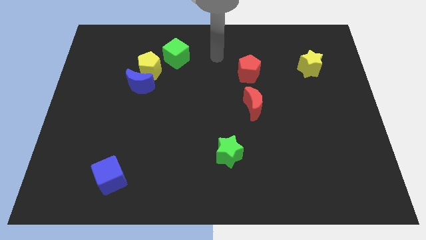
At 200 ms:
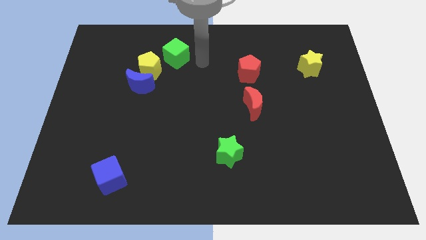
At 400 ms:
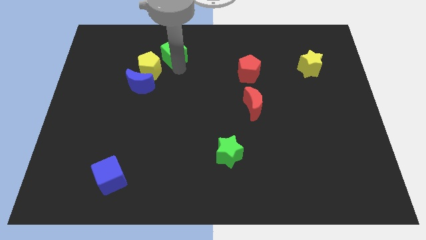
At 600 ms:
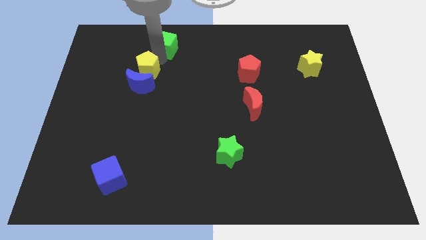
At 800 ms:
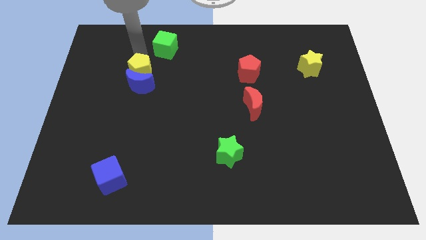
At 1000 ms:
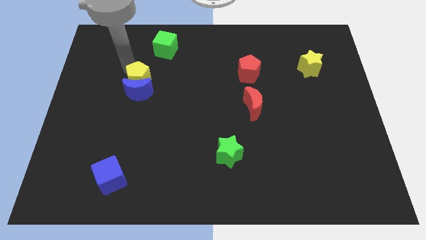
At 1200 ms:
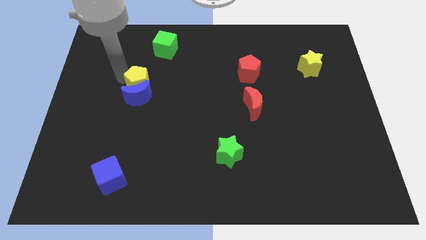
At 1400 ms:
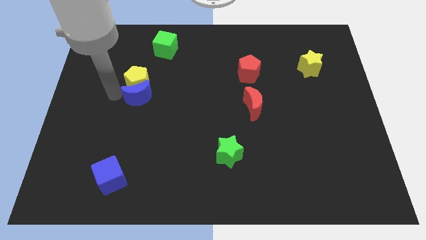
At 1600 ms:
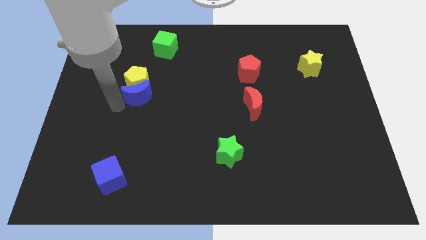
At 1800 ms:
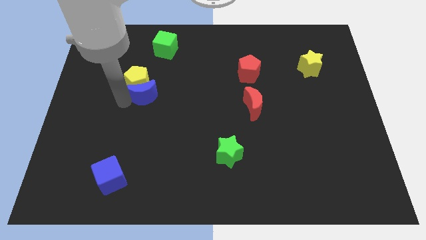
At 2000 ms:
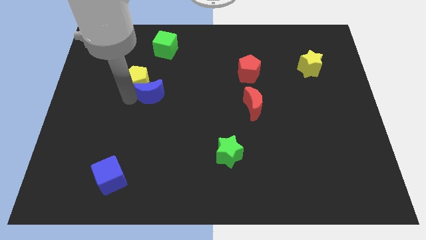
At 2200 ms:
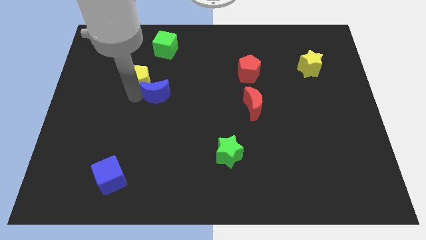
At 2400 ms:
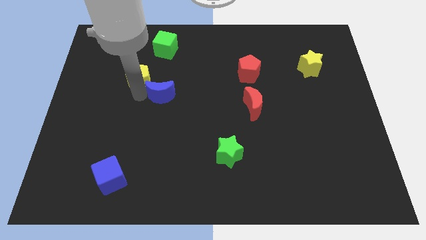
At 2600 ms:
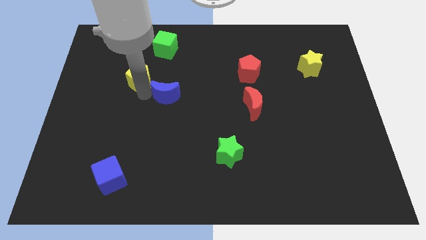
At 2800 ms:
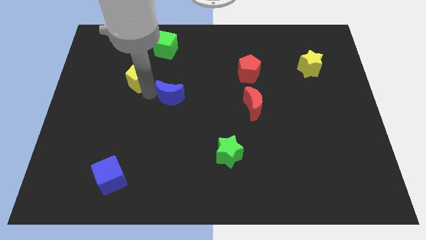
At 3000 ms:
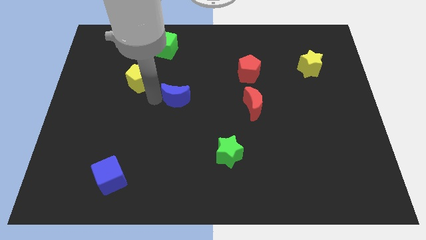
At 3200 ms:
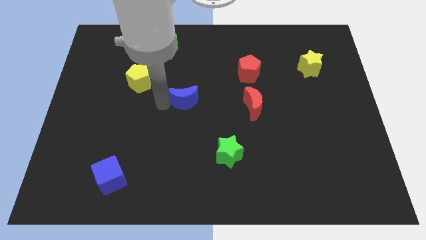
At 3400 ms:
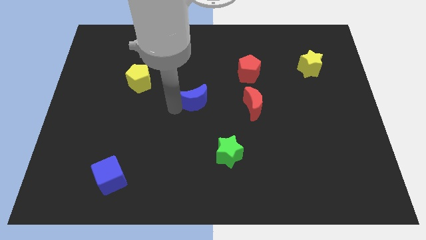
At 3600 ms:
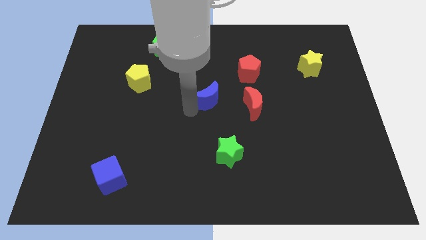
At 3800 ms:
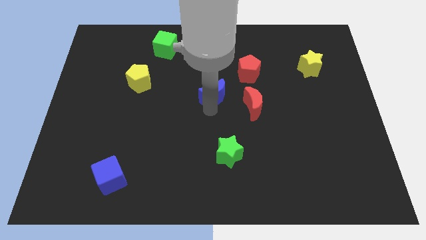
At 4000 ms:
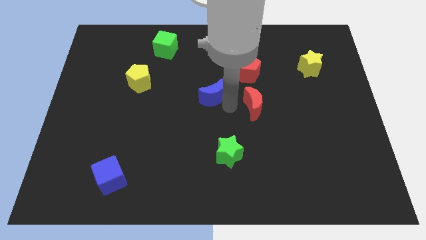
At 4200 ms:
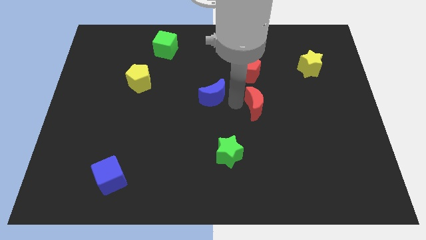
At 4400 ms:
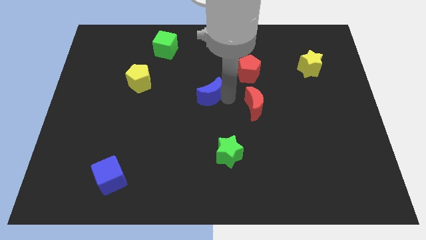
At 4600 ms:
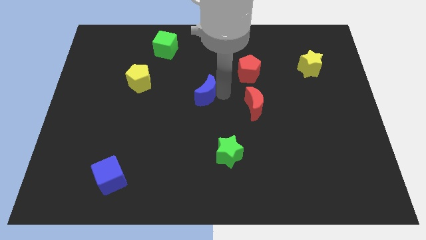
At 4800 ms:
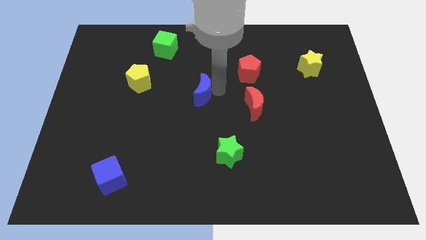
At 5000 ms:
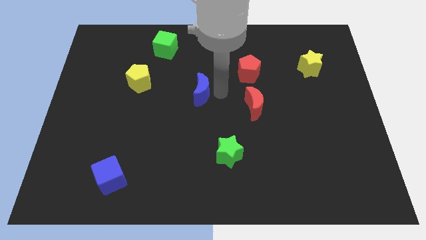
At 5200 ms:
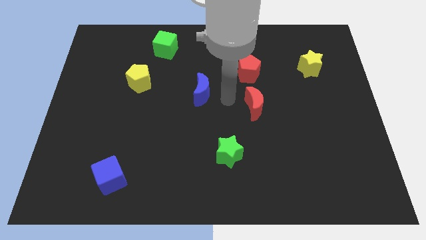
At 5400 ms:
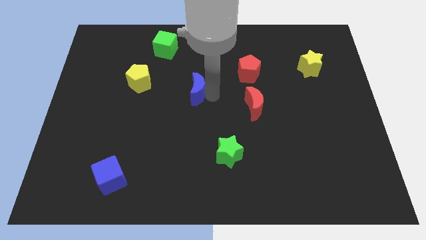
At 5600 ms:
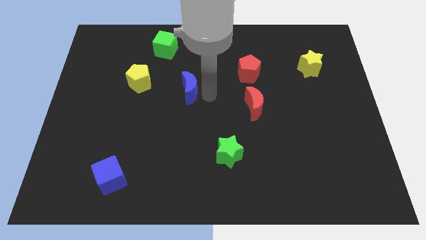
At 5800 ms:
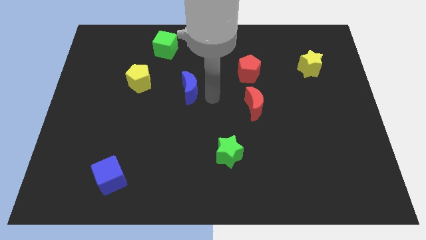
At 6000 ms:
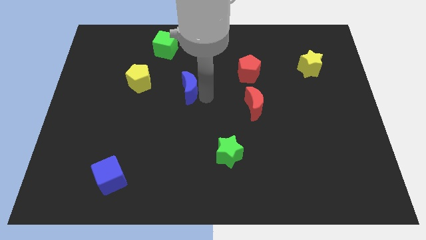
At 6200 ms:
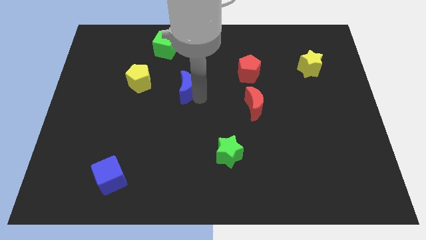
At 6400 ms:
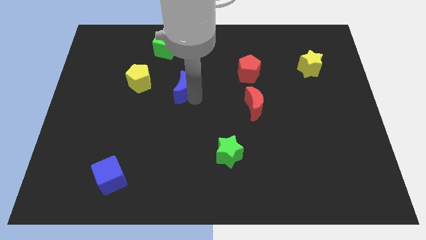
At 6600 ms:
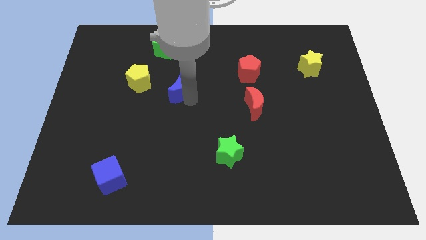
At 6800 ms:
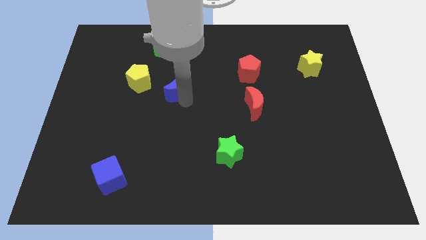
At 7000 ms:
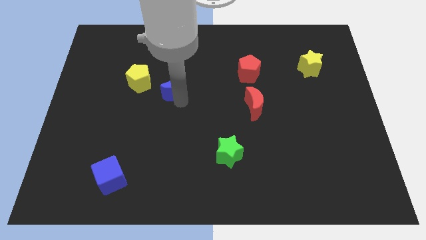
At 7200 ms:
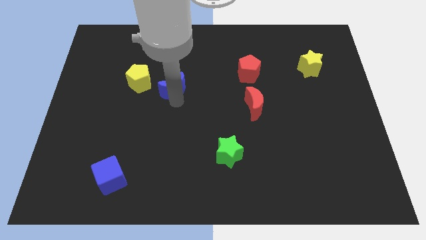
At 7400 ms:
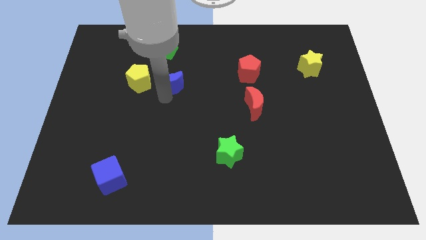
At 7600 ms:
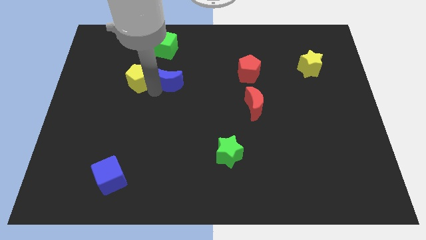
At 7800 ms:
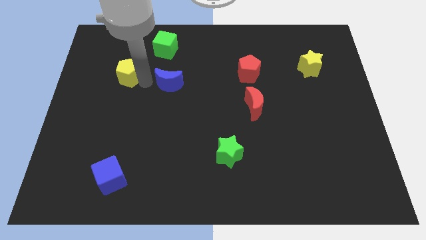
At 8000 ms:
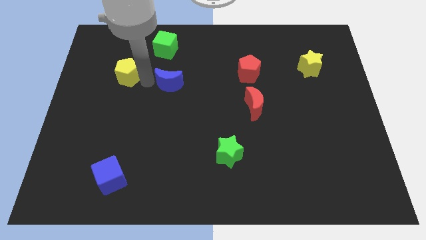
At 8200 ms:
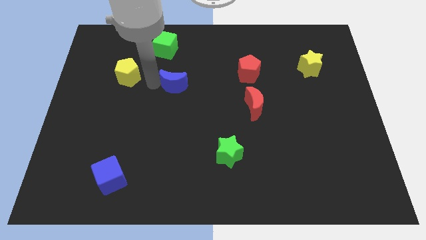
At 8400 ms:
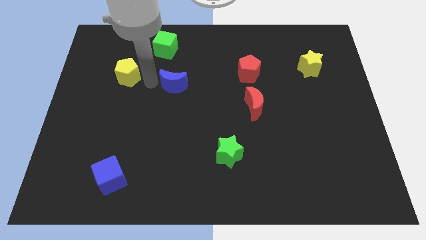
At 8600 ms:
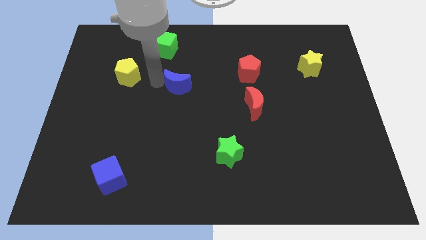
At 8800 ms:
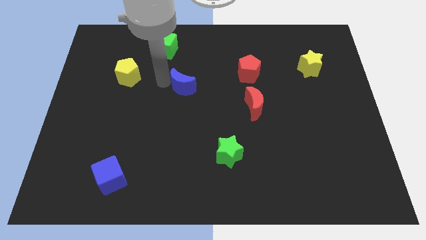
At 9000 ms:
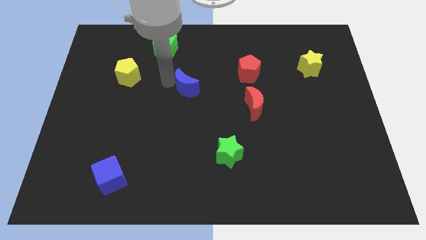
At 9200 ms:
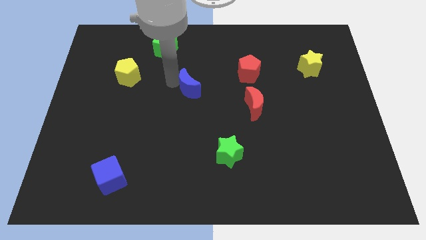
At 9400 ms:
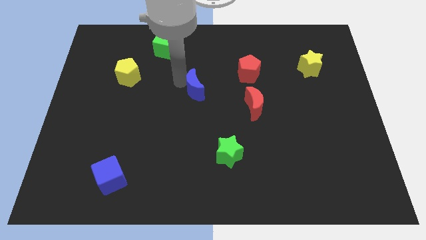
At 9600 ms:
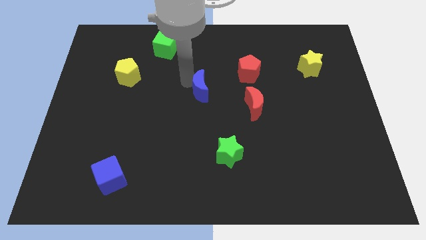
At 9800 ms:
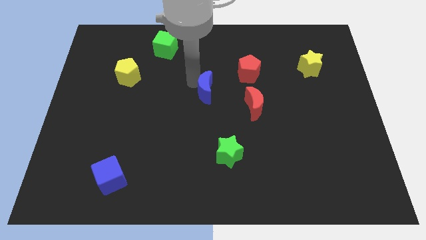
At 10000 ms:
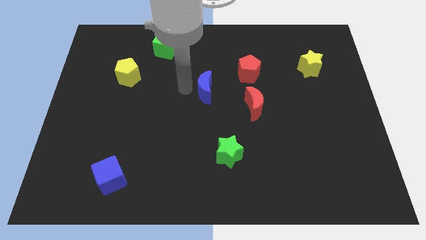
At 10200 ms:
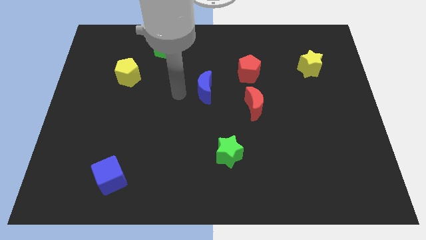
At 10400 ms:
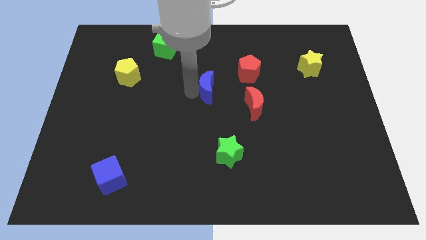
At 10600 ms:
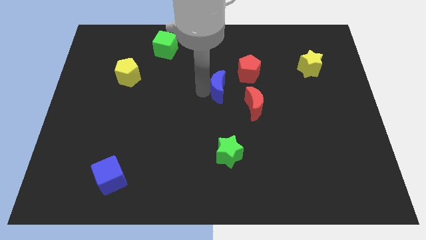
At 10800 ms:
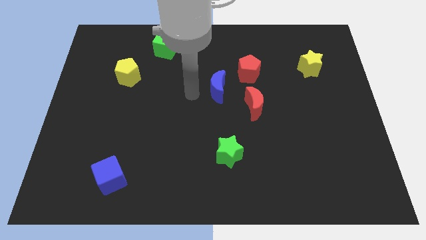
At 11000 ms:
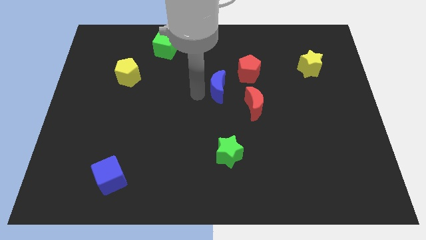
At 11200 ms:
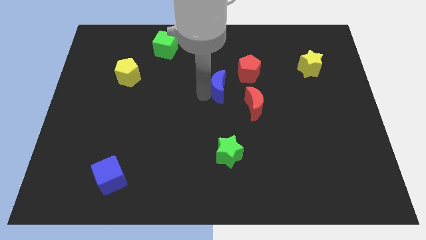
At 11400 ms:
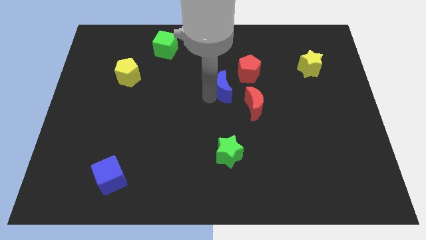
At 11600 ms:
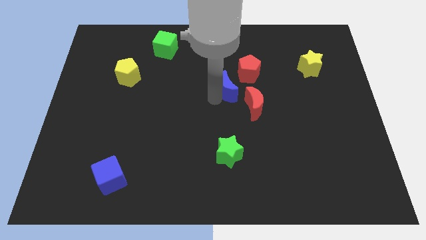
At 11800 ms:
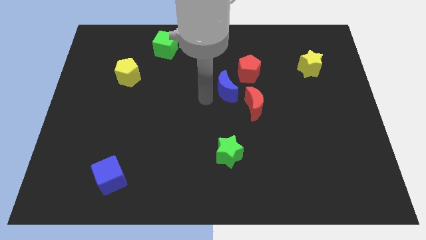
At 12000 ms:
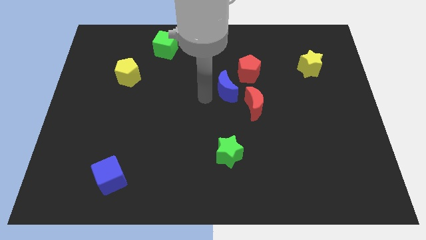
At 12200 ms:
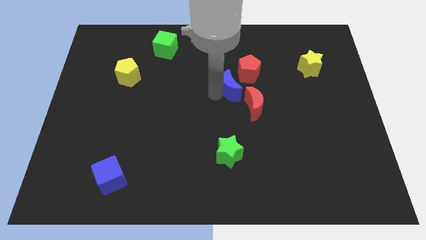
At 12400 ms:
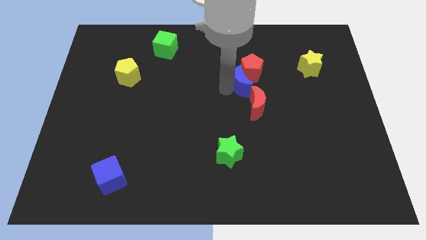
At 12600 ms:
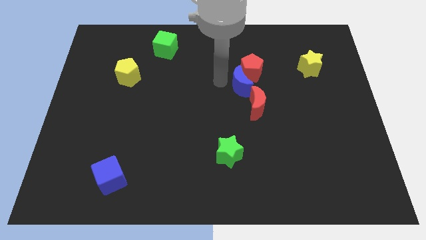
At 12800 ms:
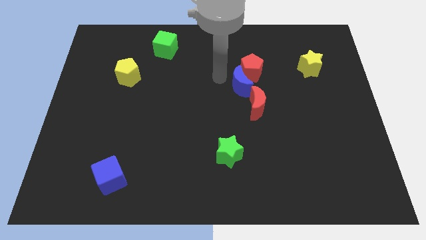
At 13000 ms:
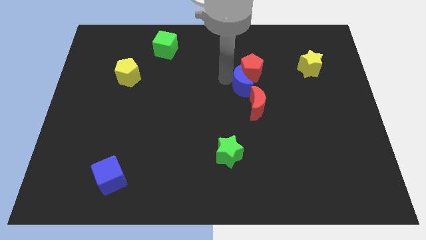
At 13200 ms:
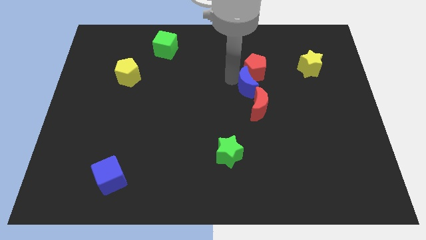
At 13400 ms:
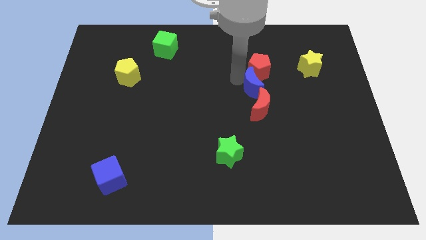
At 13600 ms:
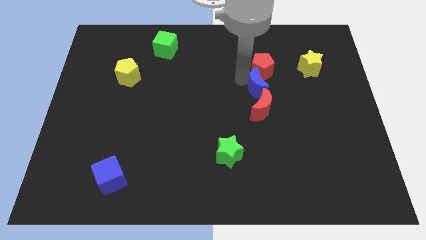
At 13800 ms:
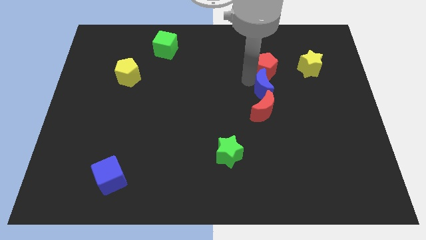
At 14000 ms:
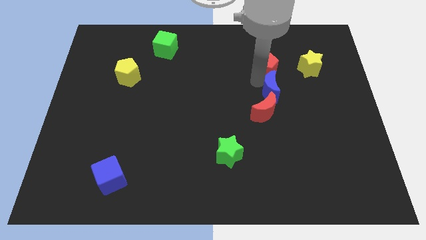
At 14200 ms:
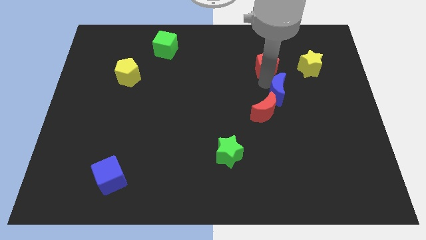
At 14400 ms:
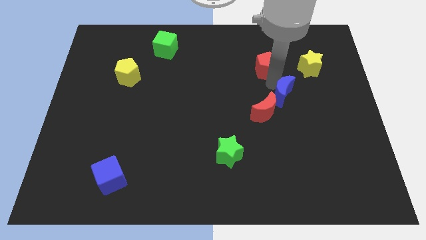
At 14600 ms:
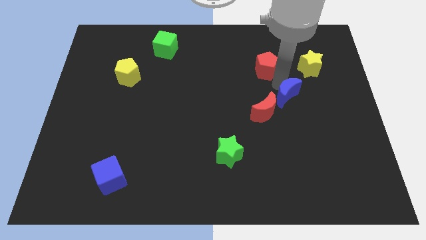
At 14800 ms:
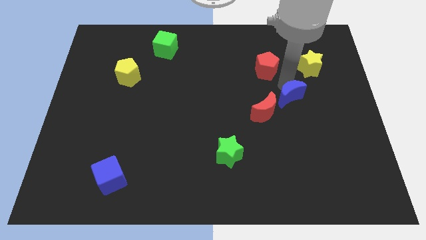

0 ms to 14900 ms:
slide the blue moon just right of the red moon
